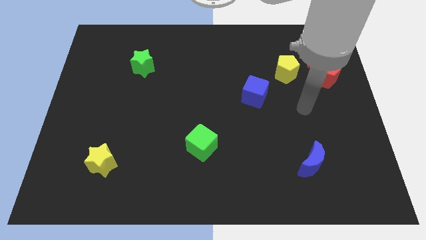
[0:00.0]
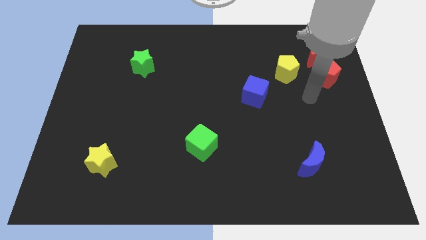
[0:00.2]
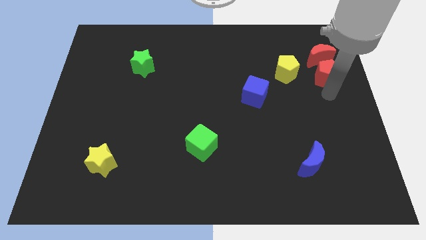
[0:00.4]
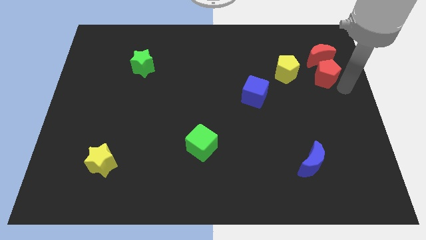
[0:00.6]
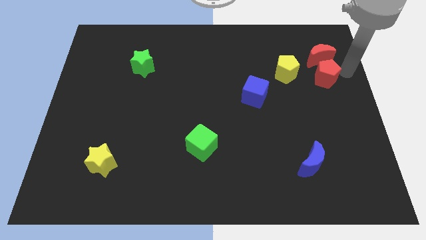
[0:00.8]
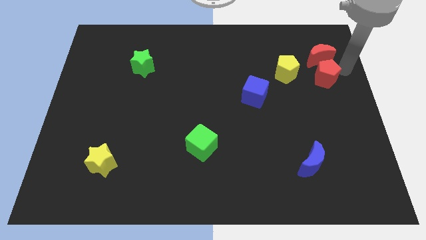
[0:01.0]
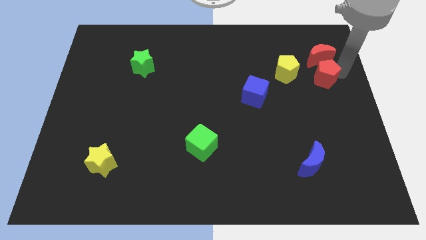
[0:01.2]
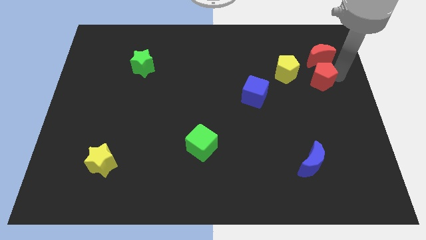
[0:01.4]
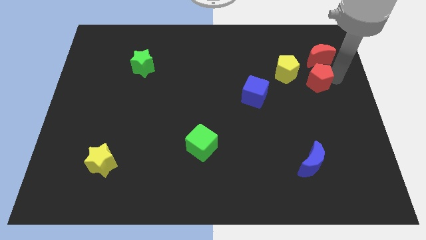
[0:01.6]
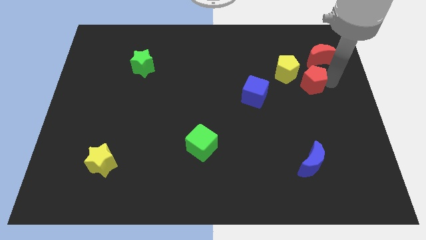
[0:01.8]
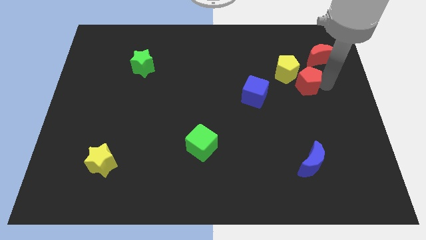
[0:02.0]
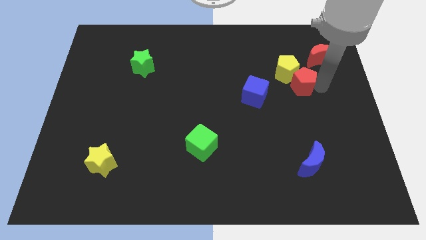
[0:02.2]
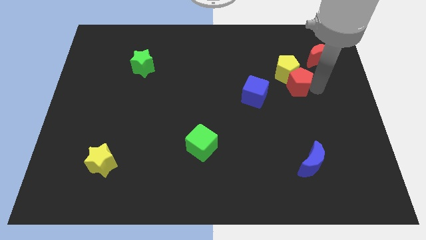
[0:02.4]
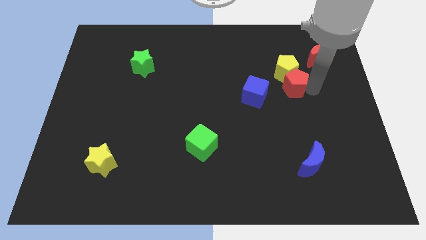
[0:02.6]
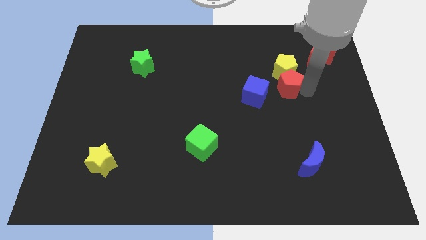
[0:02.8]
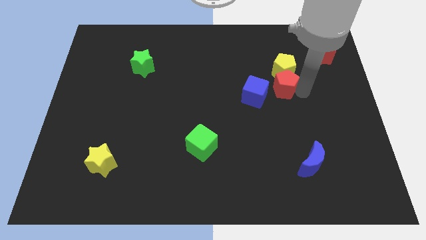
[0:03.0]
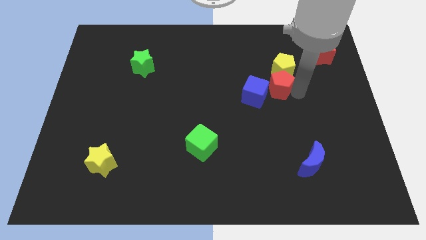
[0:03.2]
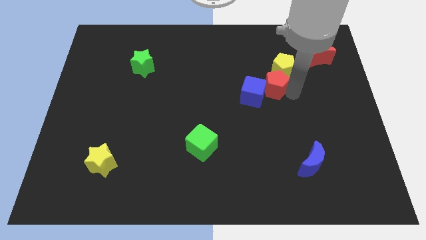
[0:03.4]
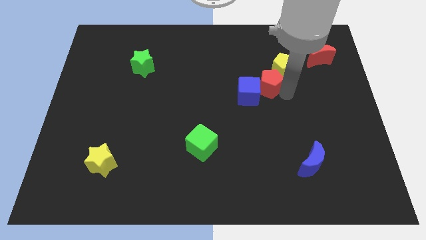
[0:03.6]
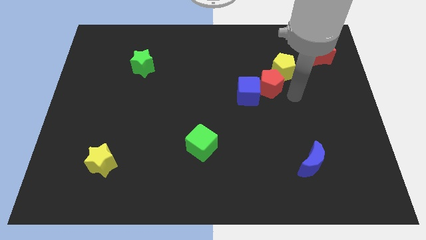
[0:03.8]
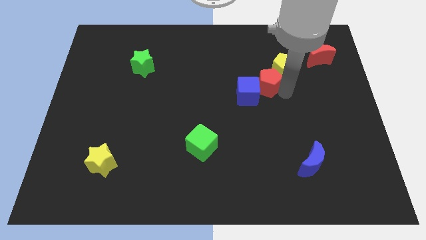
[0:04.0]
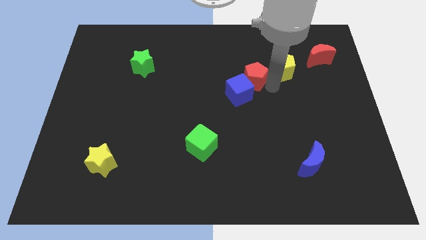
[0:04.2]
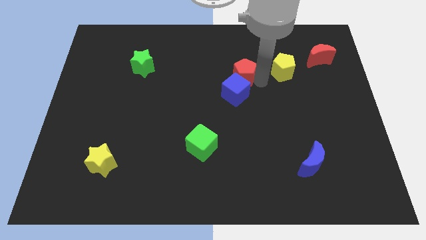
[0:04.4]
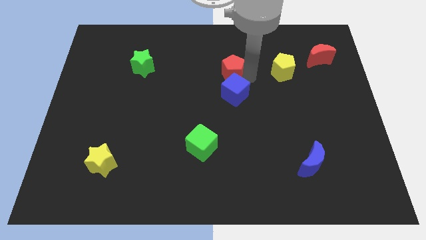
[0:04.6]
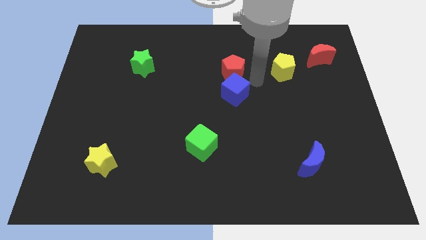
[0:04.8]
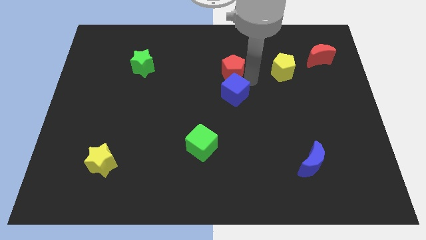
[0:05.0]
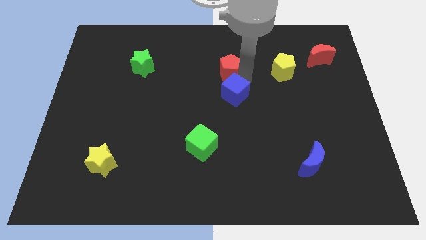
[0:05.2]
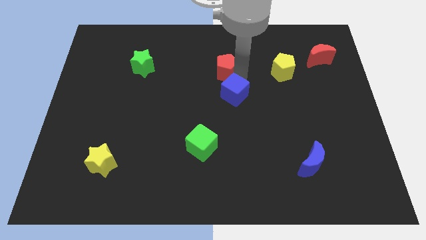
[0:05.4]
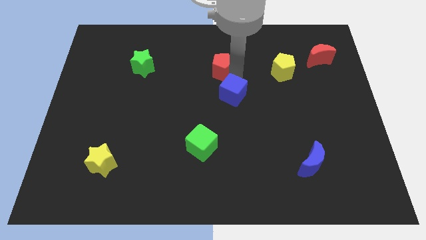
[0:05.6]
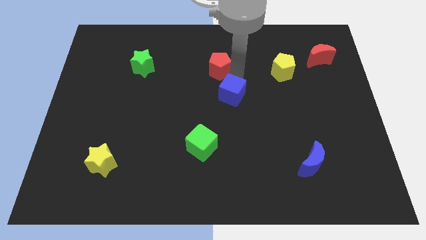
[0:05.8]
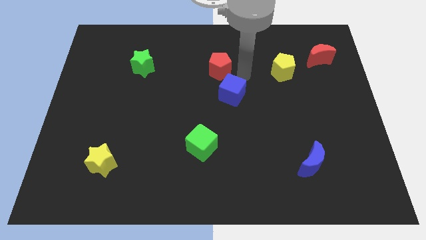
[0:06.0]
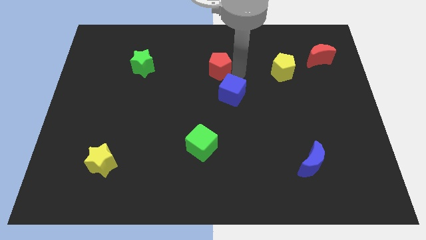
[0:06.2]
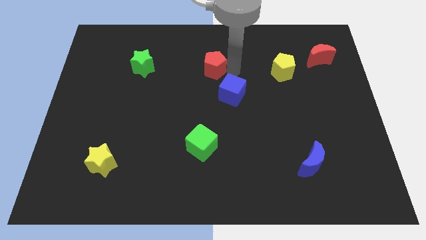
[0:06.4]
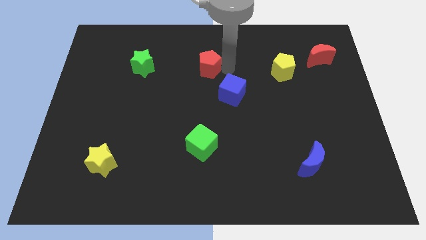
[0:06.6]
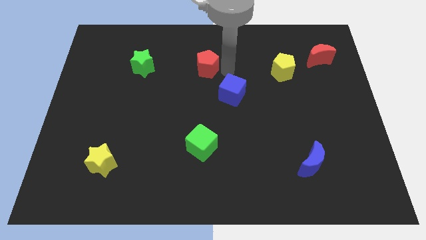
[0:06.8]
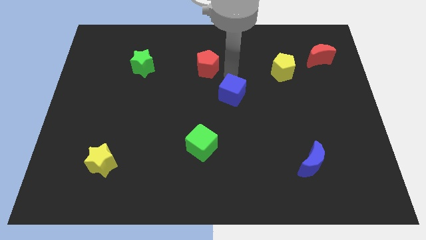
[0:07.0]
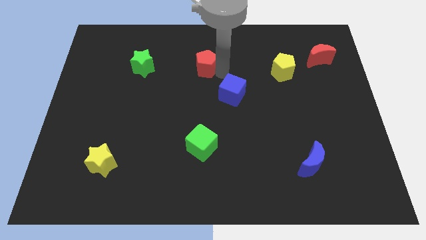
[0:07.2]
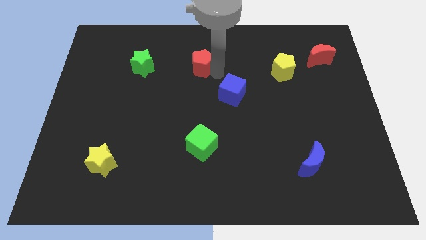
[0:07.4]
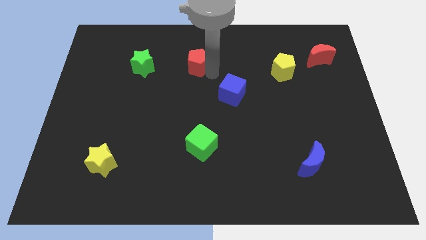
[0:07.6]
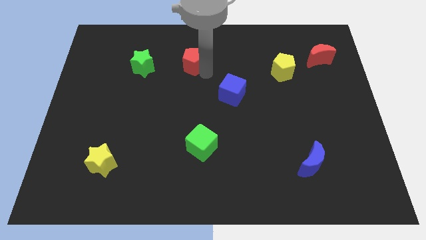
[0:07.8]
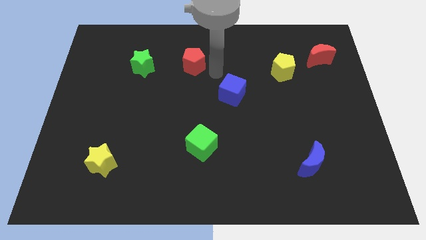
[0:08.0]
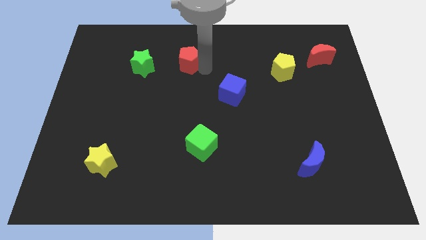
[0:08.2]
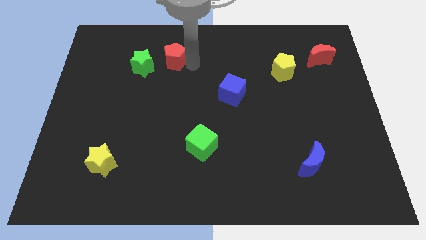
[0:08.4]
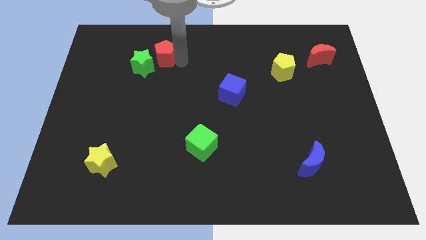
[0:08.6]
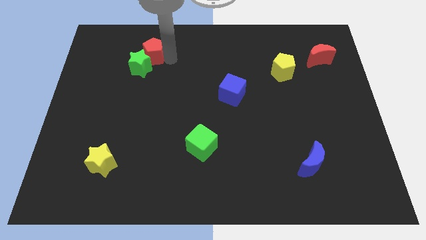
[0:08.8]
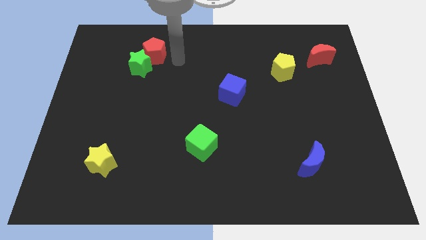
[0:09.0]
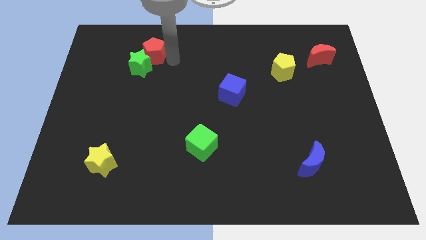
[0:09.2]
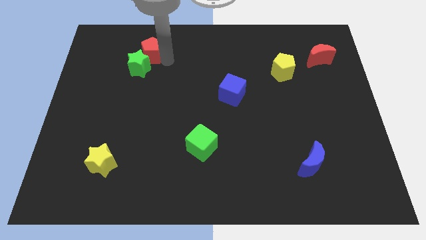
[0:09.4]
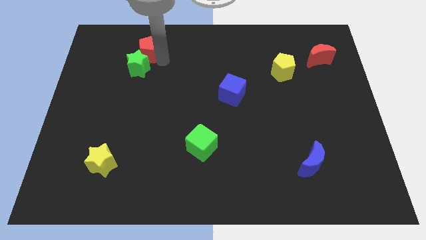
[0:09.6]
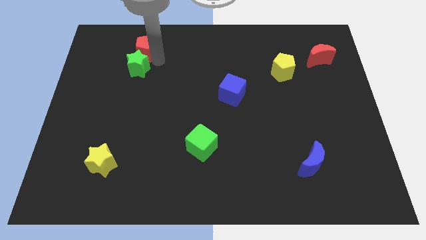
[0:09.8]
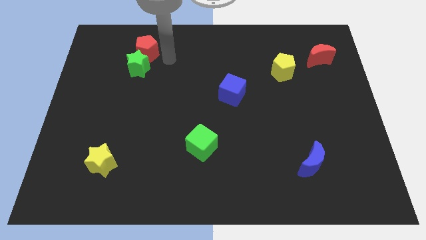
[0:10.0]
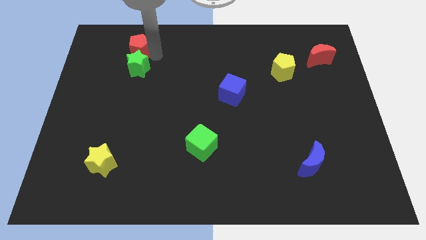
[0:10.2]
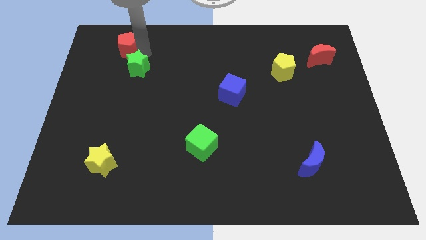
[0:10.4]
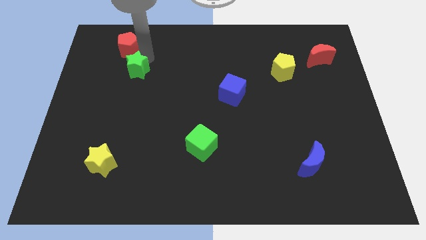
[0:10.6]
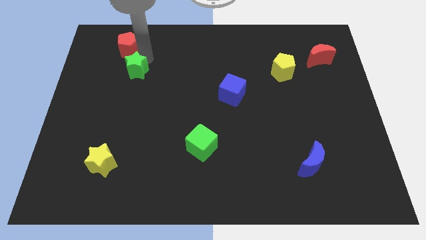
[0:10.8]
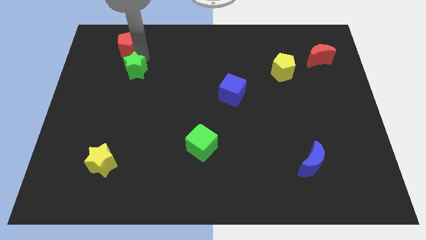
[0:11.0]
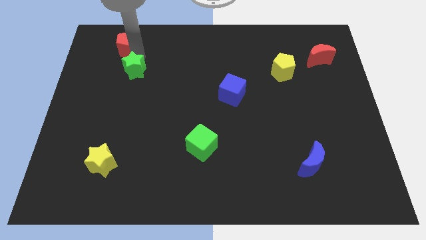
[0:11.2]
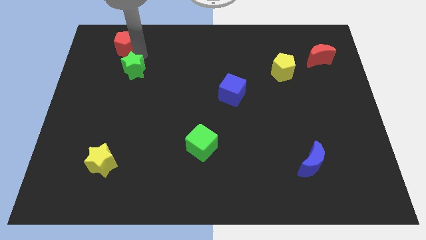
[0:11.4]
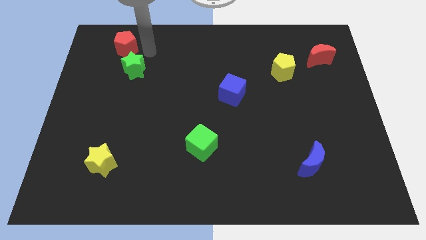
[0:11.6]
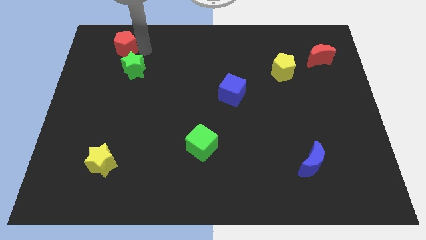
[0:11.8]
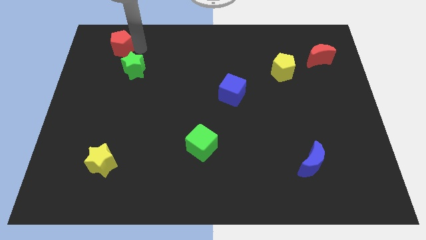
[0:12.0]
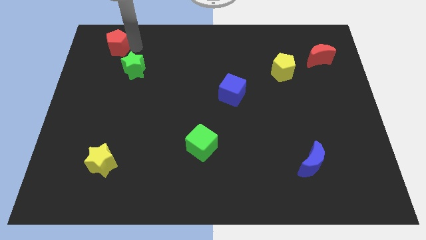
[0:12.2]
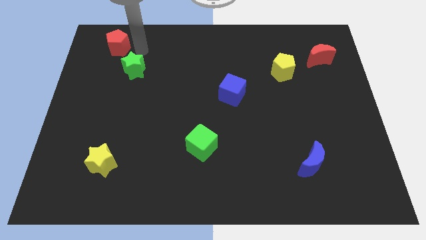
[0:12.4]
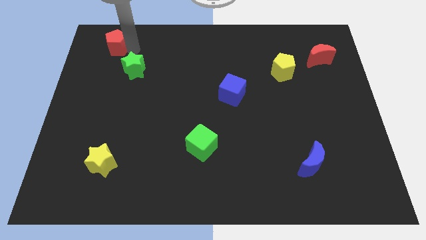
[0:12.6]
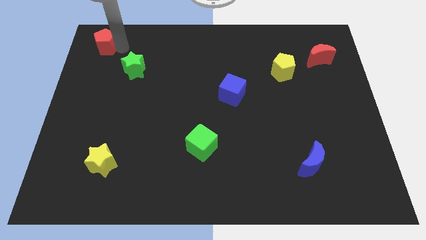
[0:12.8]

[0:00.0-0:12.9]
move the red pentagon to the top left of the board
